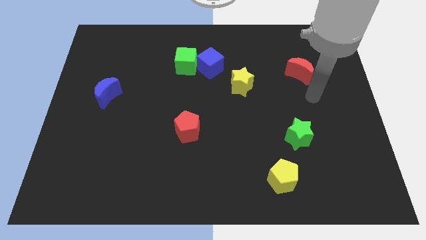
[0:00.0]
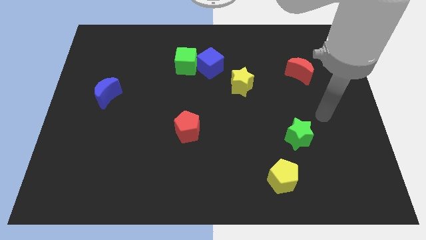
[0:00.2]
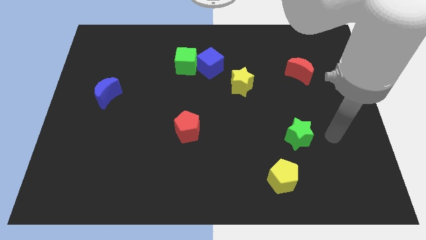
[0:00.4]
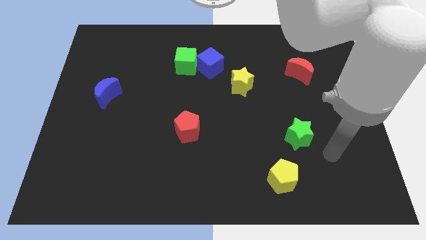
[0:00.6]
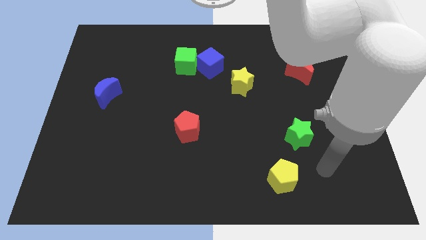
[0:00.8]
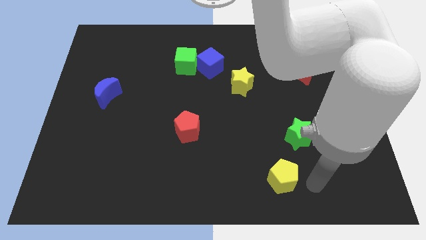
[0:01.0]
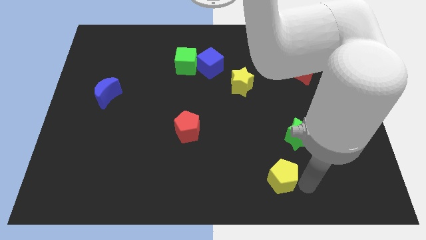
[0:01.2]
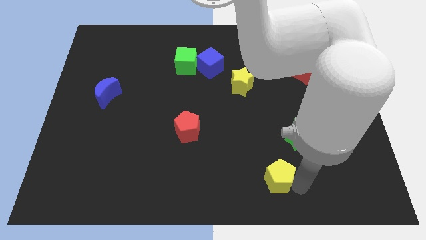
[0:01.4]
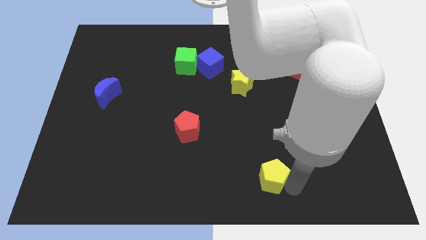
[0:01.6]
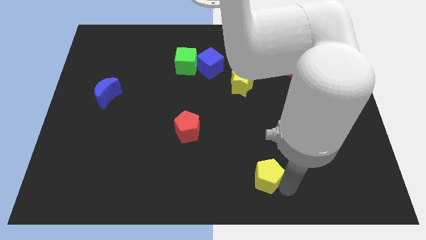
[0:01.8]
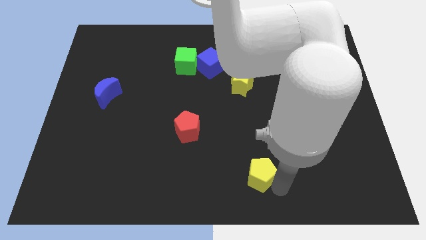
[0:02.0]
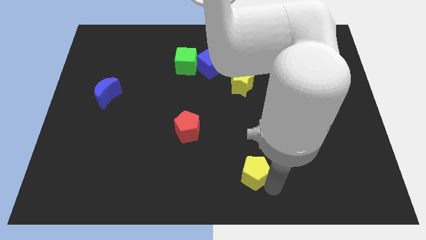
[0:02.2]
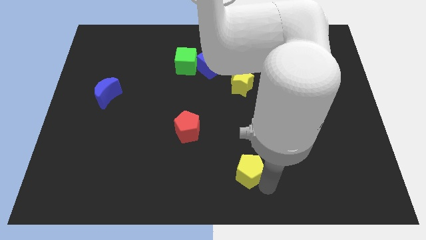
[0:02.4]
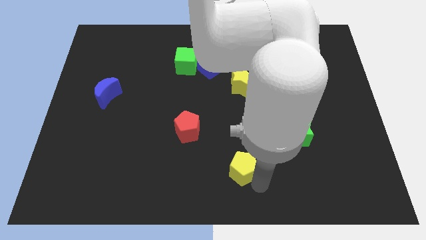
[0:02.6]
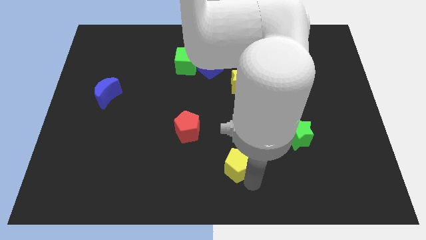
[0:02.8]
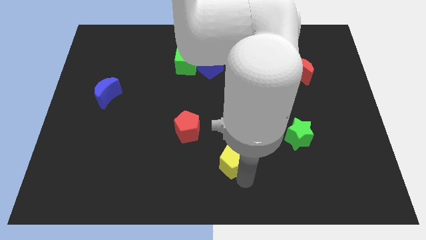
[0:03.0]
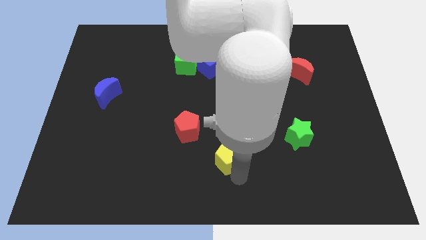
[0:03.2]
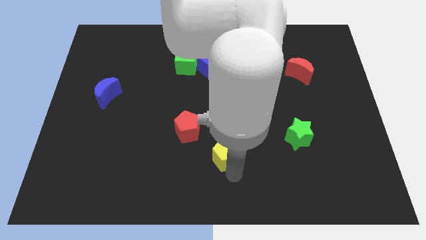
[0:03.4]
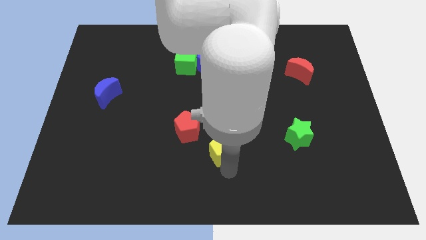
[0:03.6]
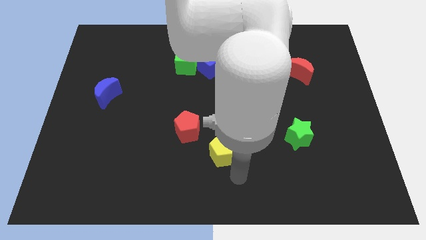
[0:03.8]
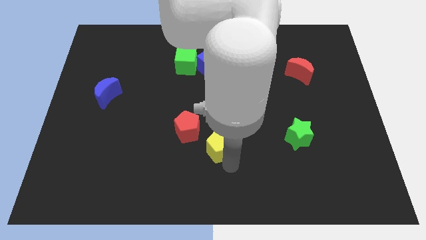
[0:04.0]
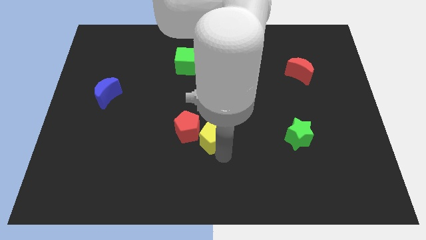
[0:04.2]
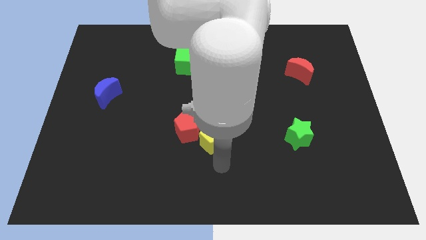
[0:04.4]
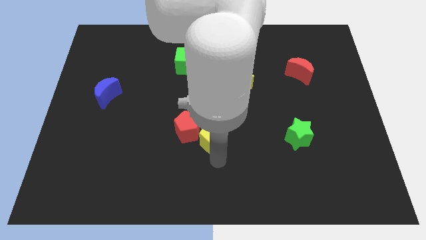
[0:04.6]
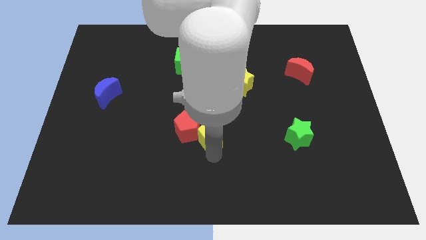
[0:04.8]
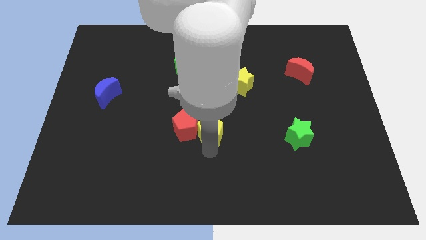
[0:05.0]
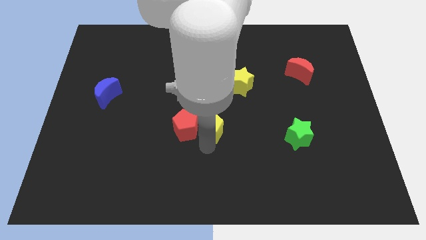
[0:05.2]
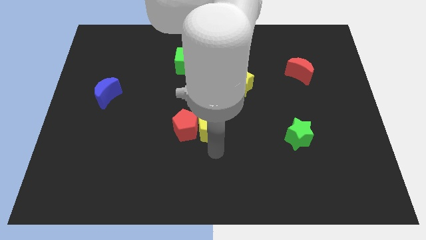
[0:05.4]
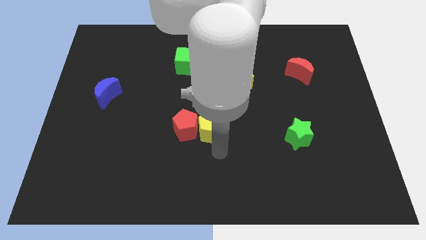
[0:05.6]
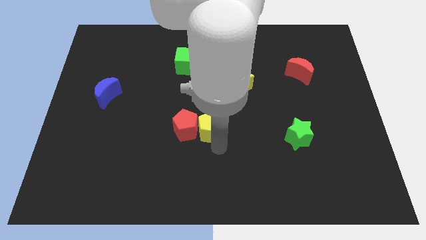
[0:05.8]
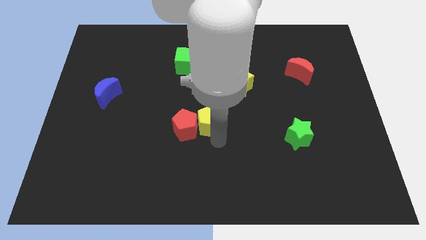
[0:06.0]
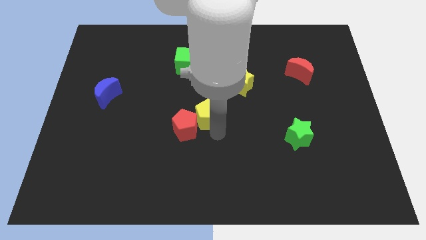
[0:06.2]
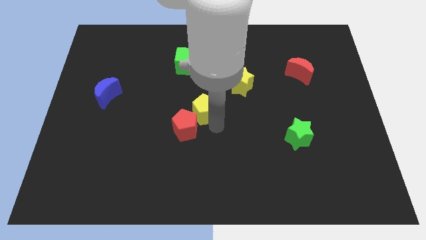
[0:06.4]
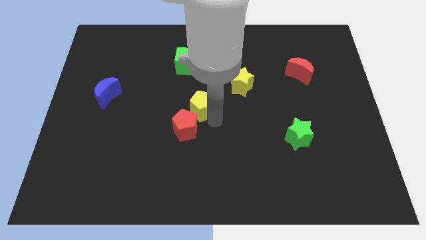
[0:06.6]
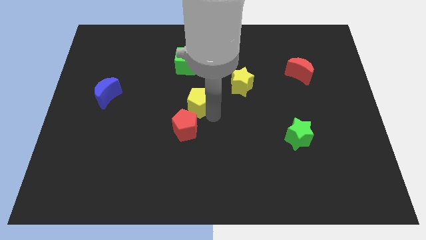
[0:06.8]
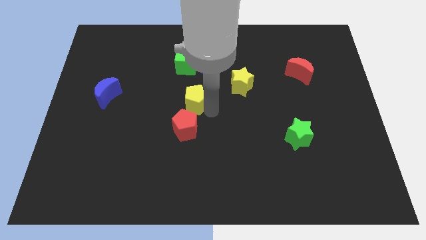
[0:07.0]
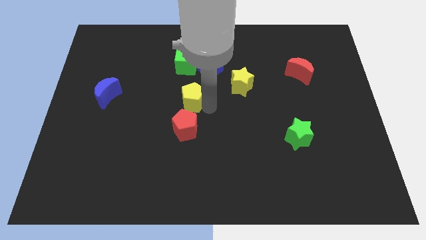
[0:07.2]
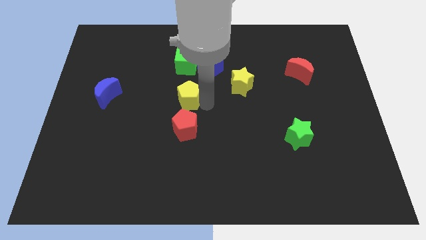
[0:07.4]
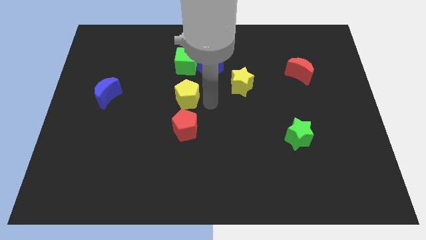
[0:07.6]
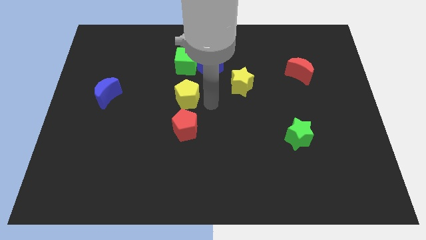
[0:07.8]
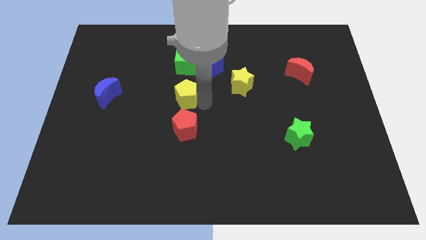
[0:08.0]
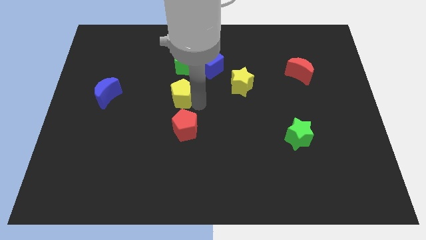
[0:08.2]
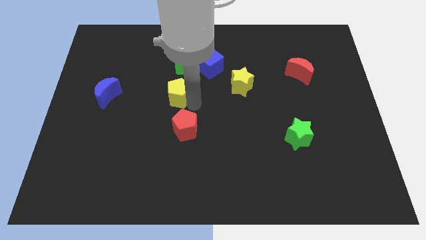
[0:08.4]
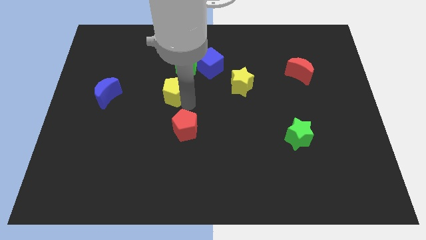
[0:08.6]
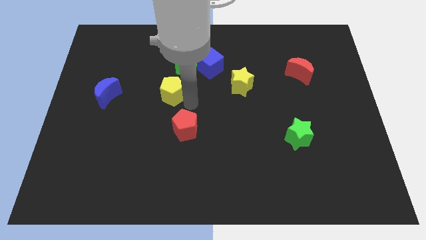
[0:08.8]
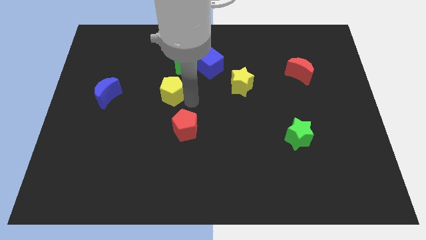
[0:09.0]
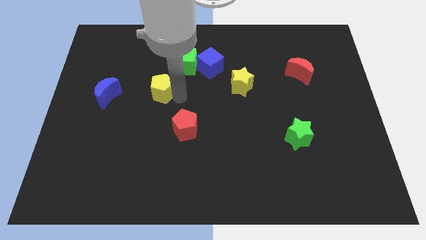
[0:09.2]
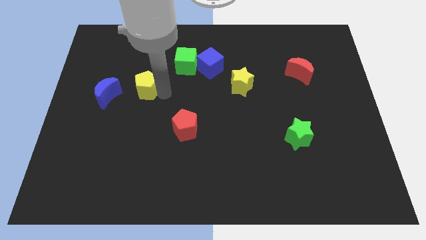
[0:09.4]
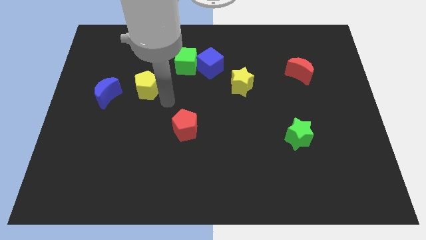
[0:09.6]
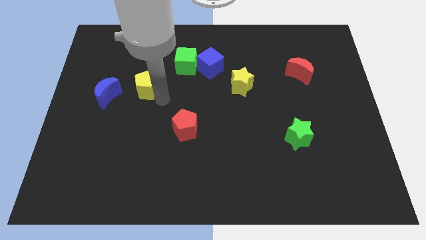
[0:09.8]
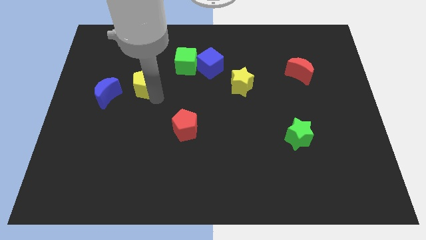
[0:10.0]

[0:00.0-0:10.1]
slide the yellow pentagon to the top right of the blue moon

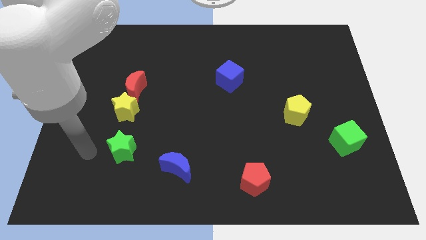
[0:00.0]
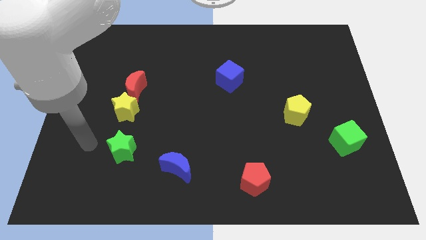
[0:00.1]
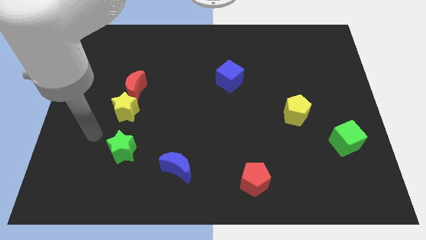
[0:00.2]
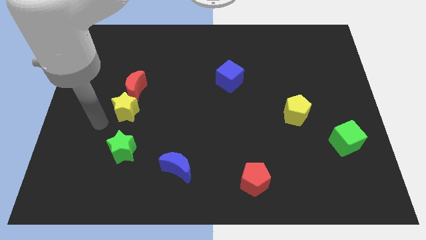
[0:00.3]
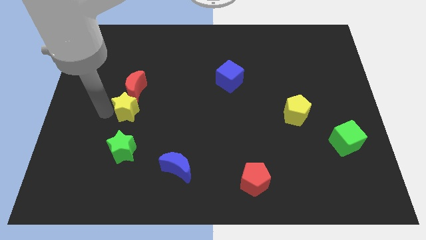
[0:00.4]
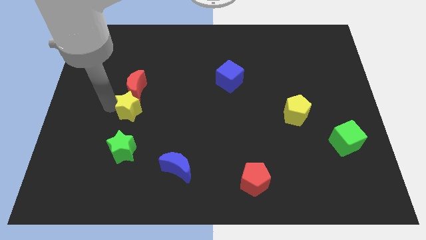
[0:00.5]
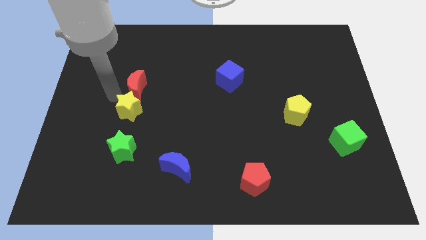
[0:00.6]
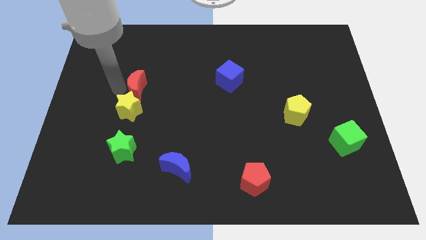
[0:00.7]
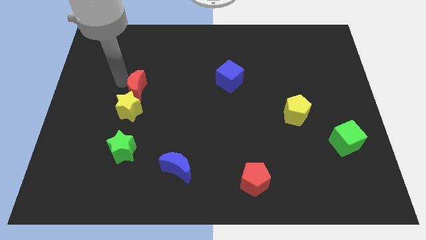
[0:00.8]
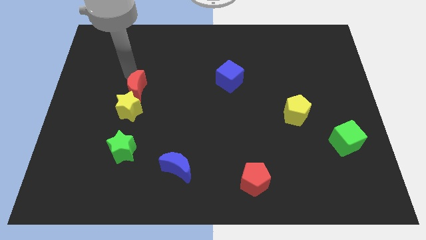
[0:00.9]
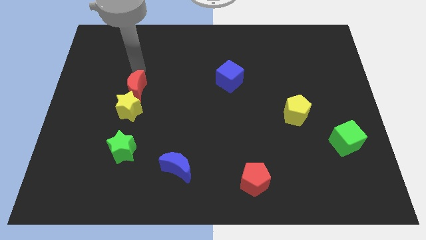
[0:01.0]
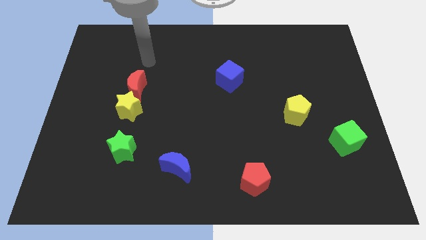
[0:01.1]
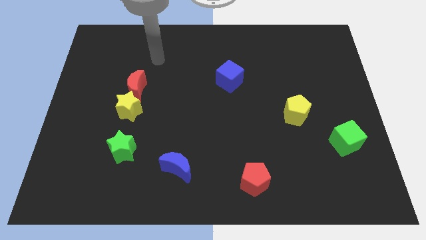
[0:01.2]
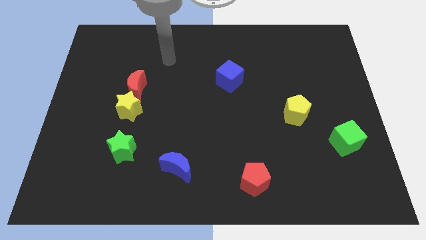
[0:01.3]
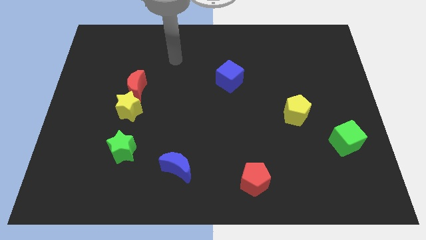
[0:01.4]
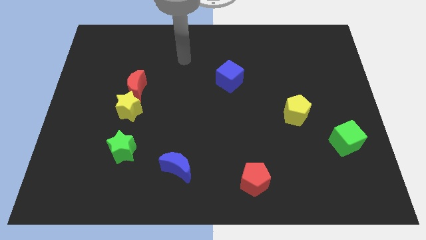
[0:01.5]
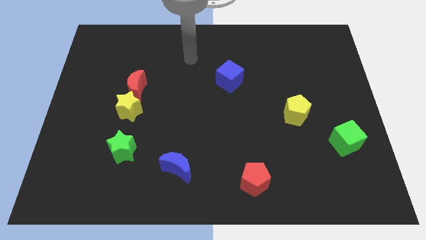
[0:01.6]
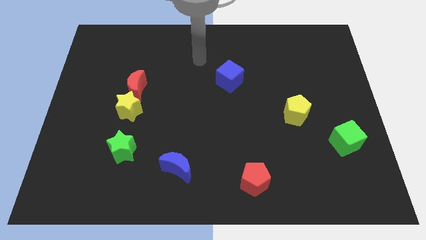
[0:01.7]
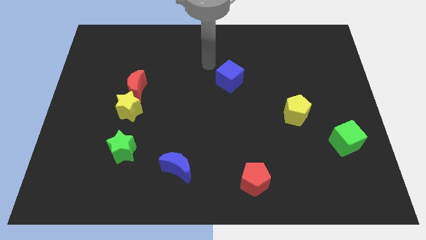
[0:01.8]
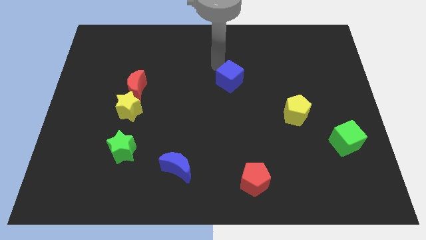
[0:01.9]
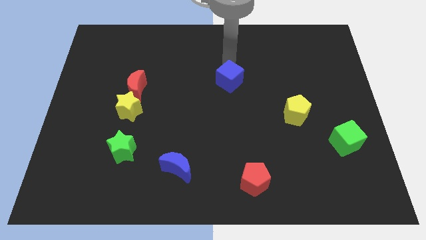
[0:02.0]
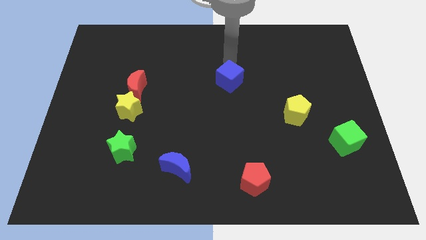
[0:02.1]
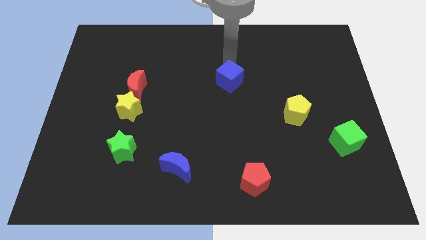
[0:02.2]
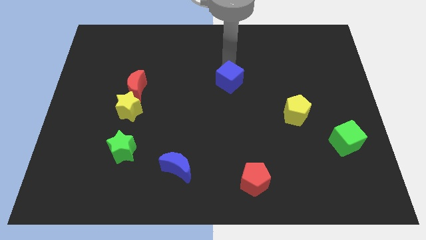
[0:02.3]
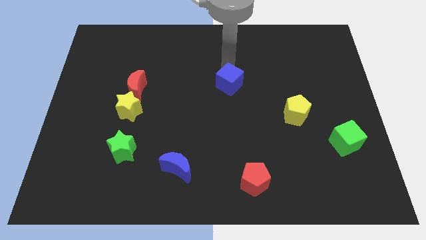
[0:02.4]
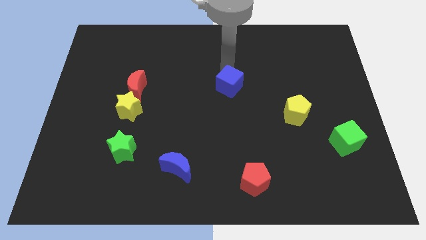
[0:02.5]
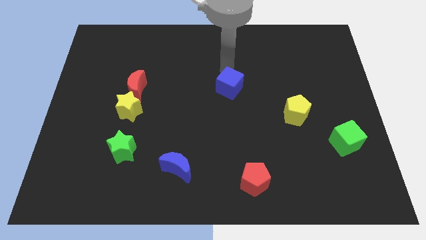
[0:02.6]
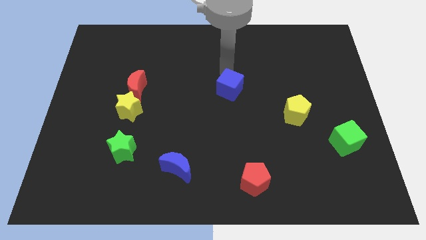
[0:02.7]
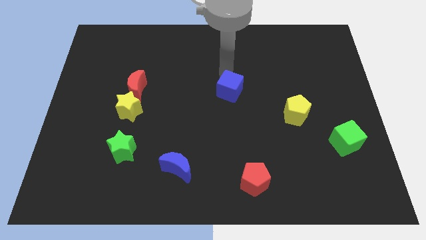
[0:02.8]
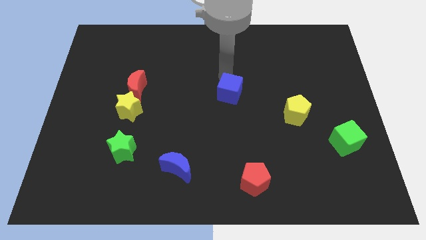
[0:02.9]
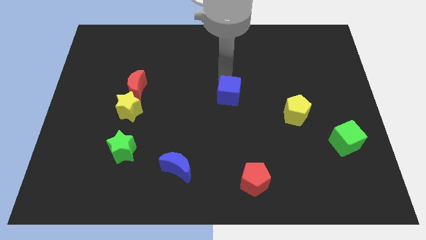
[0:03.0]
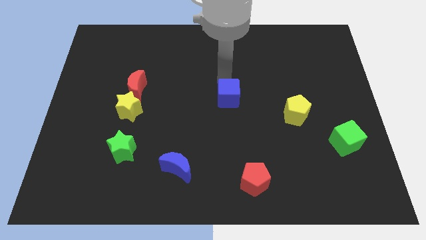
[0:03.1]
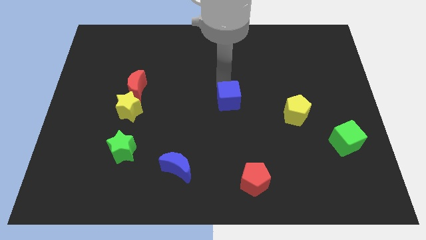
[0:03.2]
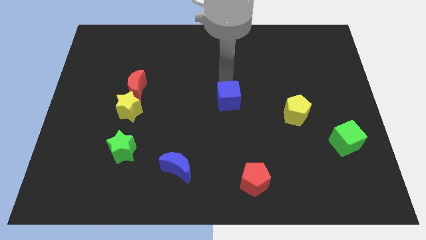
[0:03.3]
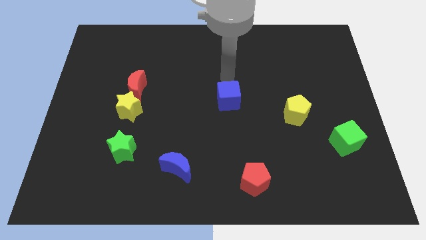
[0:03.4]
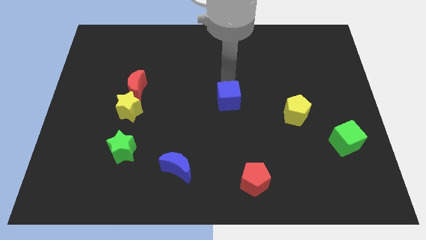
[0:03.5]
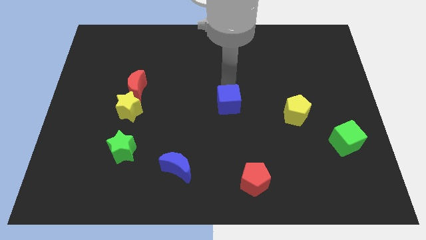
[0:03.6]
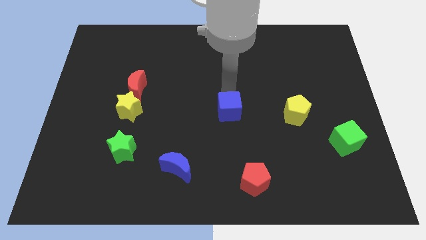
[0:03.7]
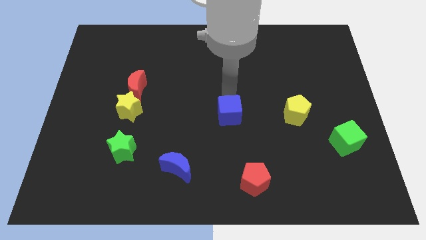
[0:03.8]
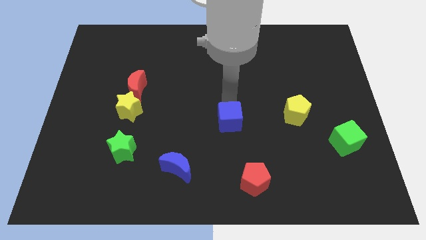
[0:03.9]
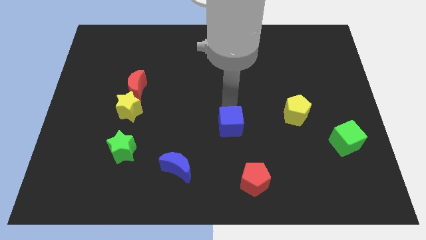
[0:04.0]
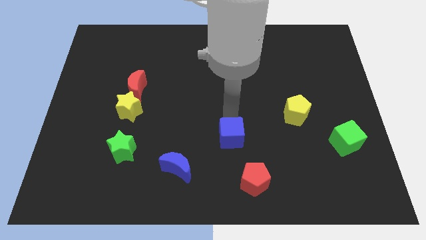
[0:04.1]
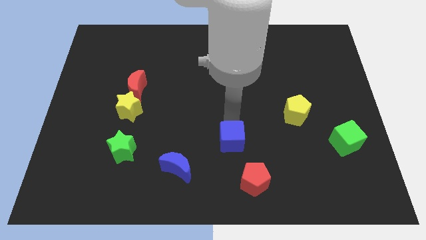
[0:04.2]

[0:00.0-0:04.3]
push the blue cube diagonally up and to the left of the red pentagon
